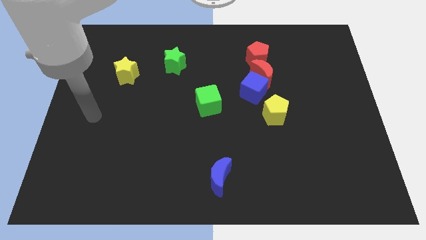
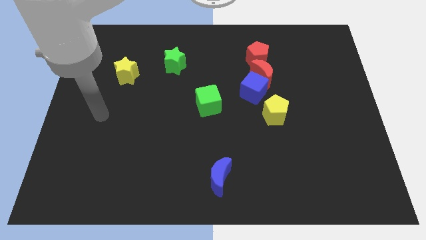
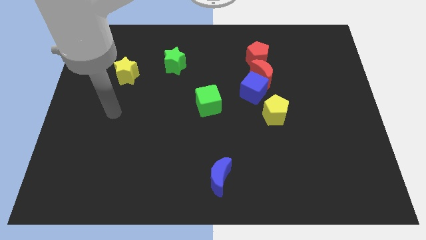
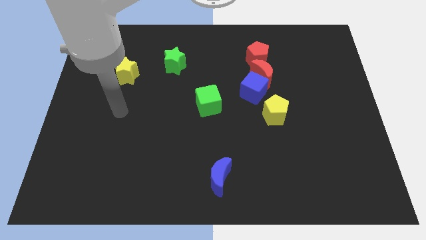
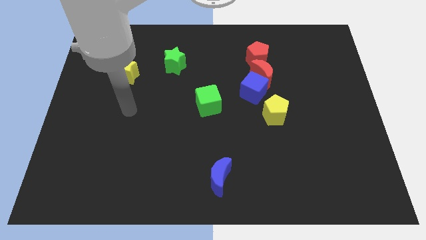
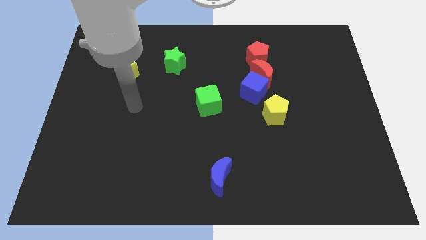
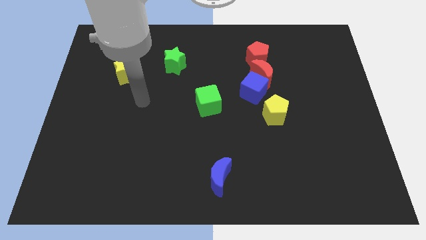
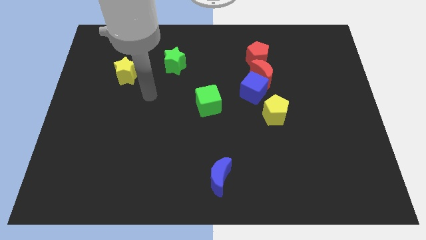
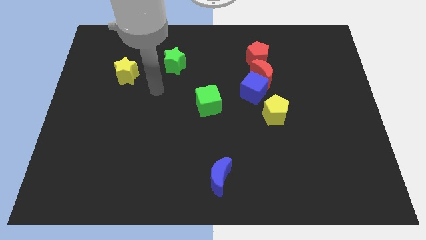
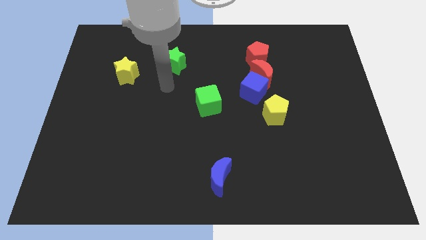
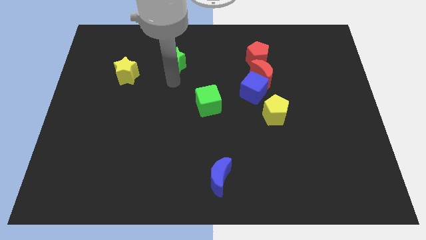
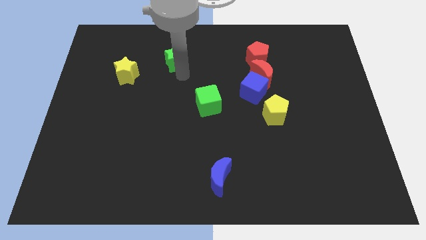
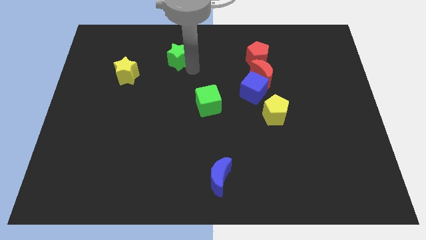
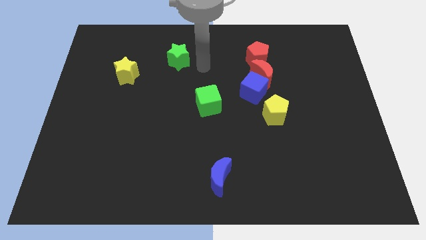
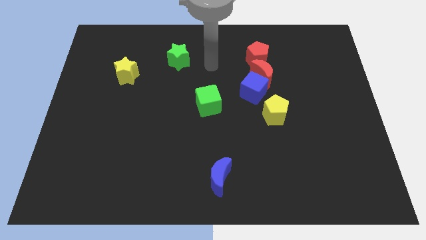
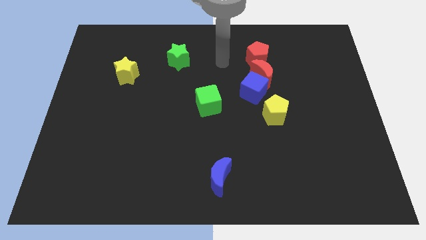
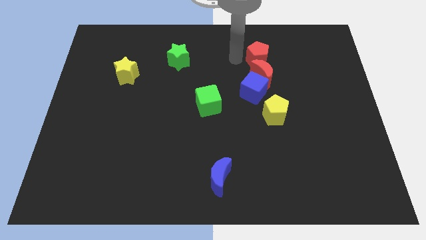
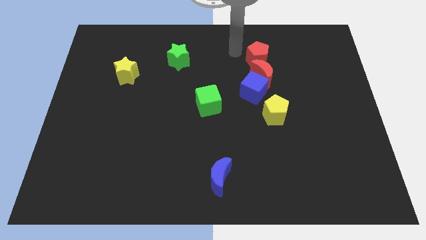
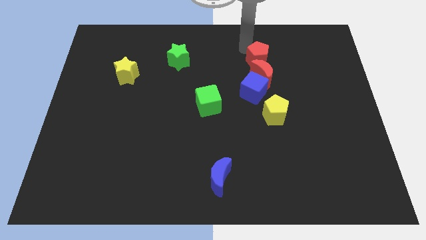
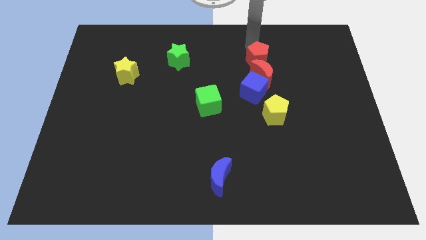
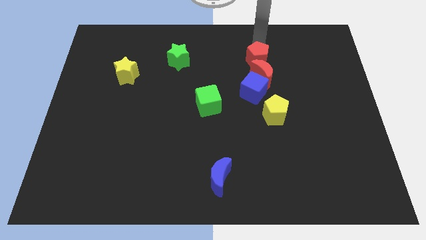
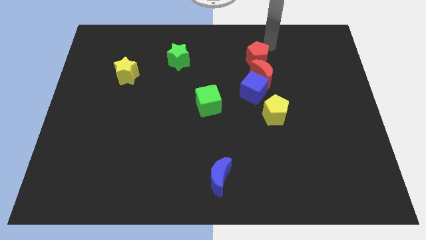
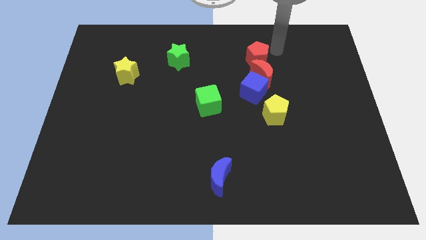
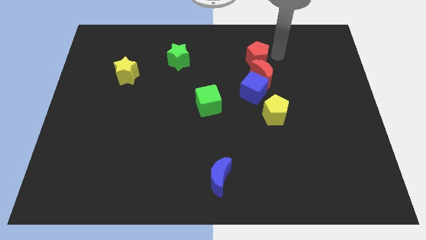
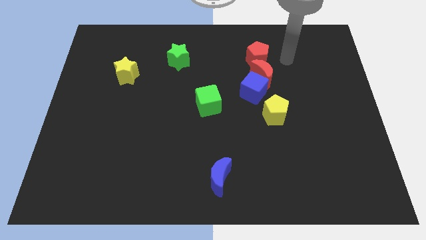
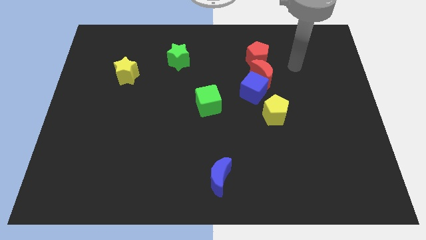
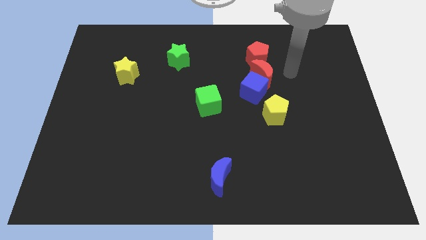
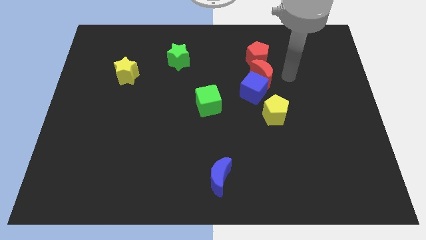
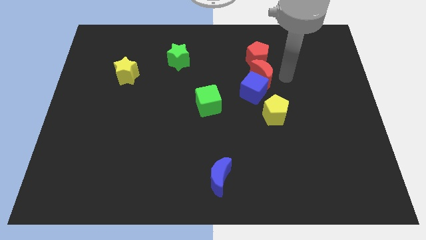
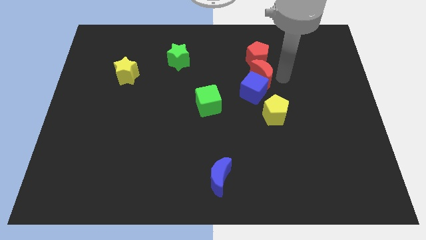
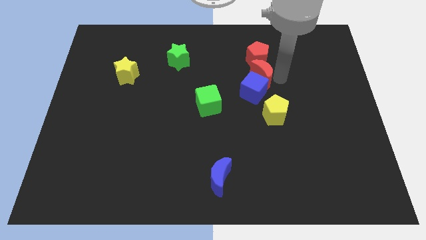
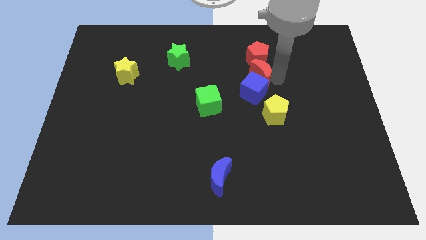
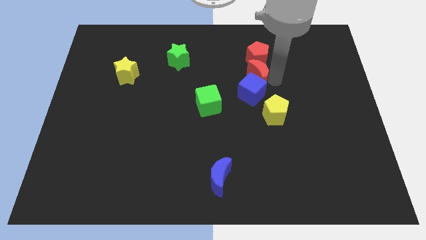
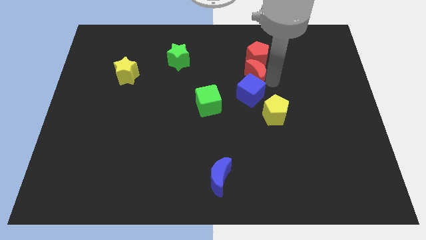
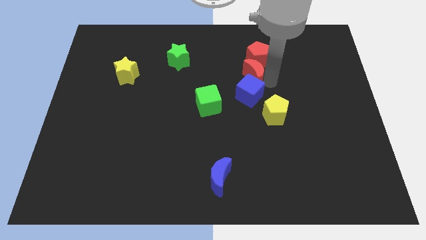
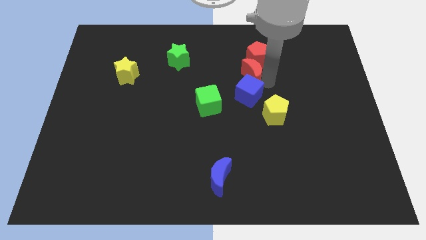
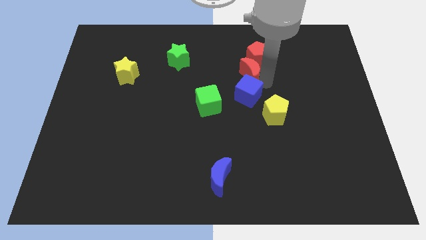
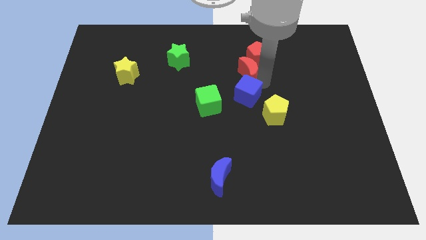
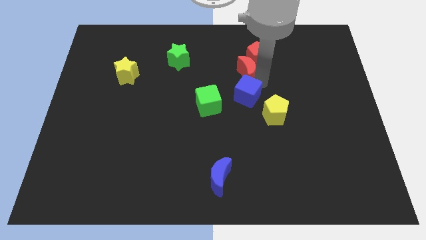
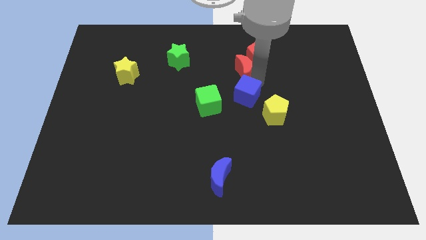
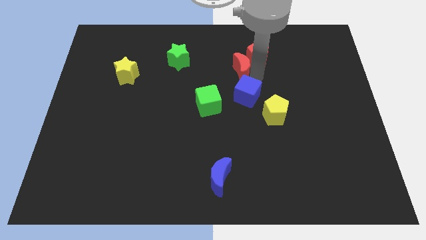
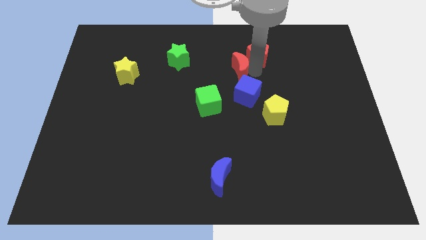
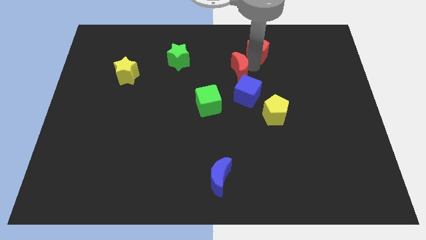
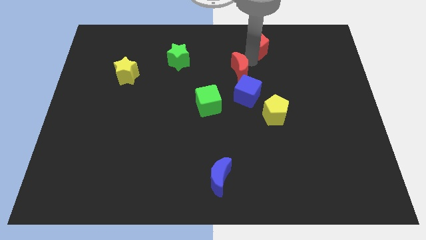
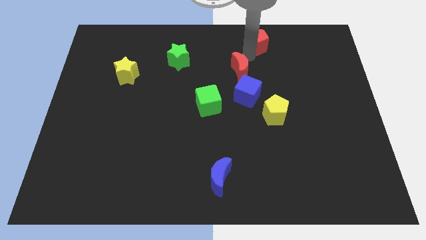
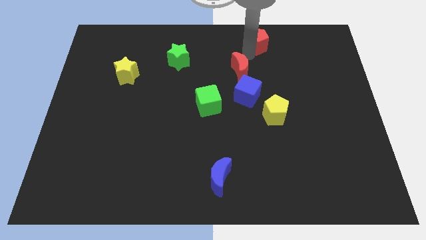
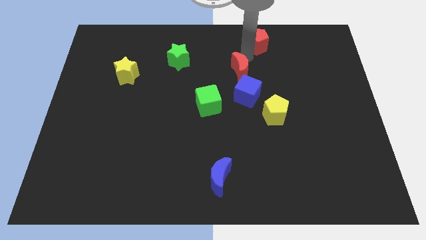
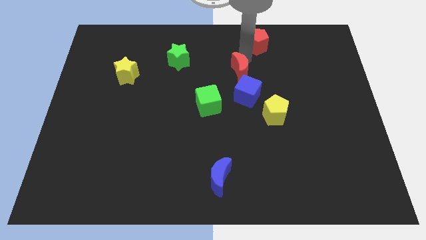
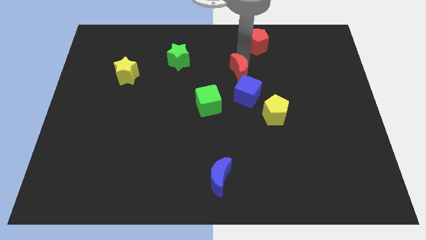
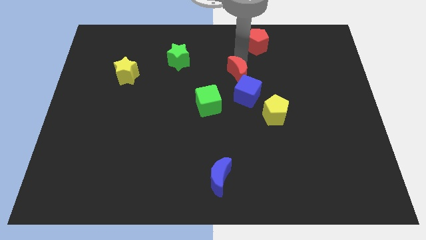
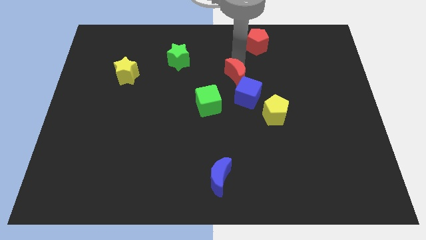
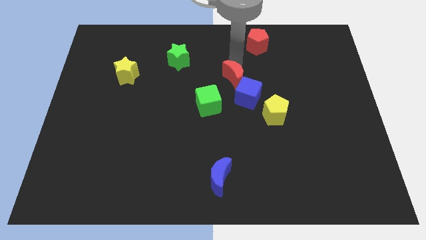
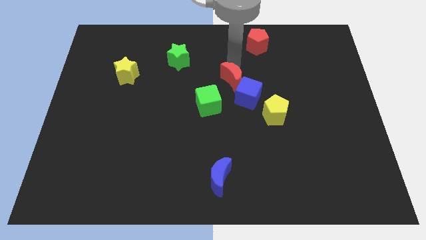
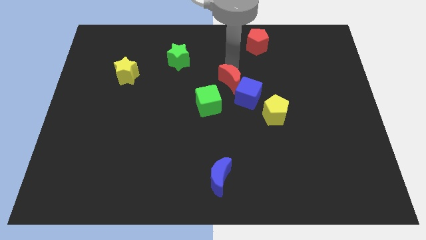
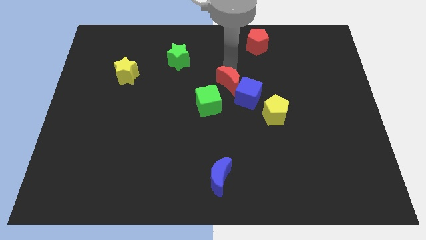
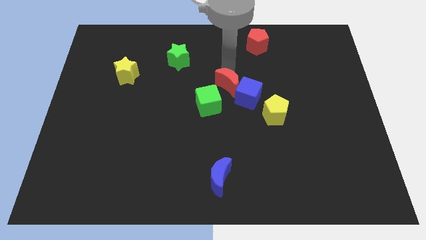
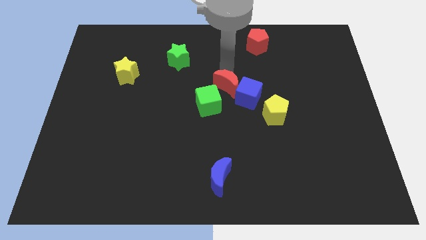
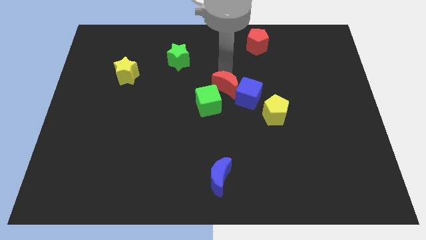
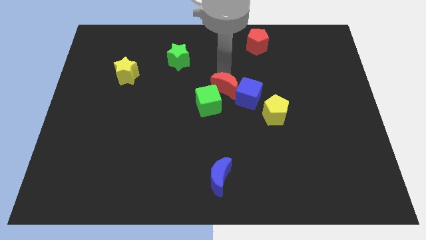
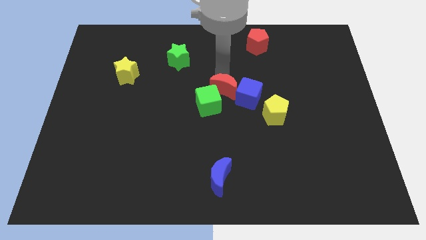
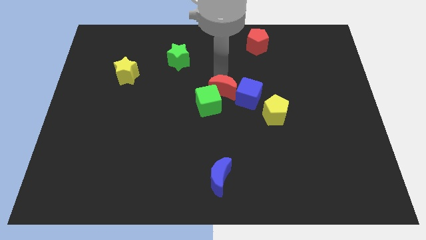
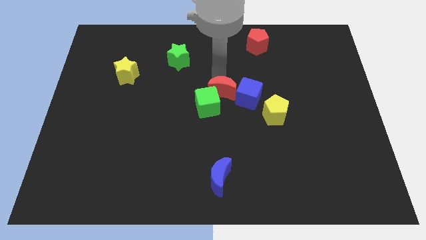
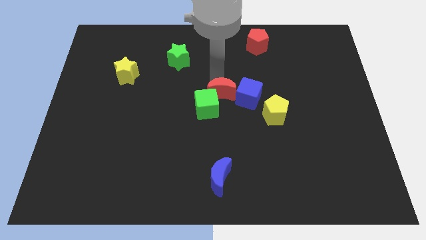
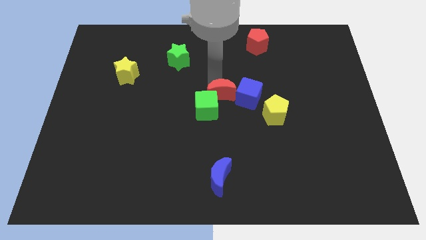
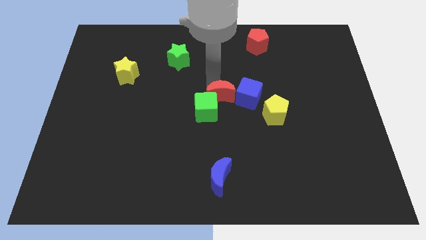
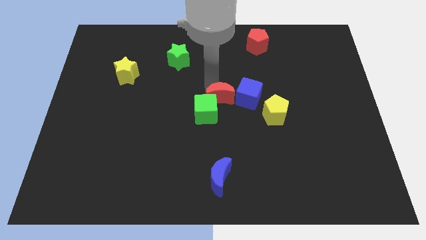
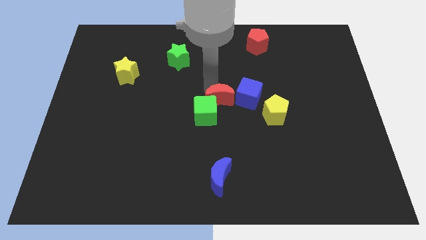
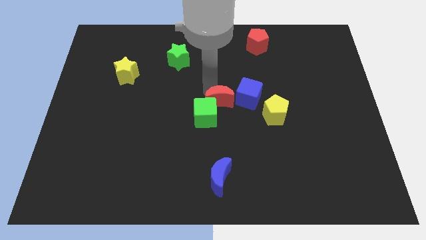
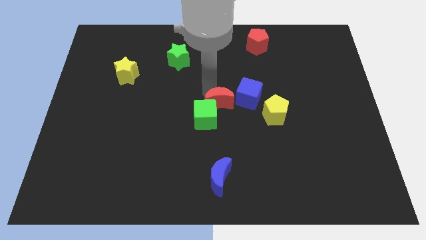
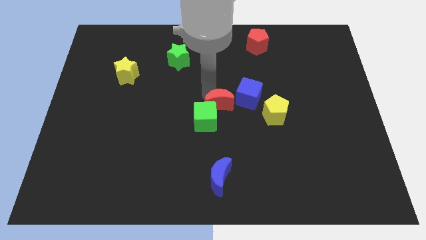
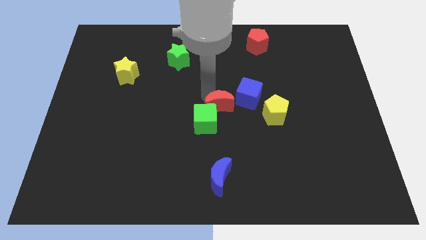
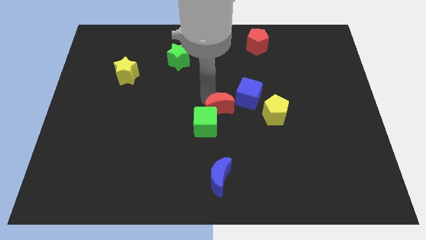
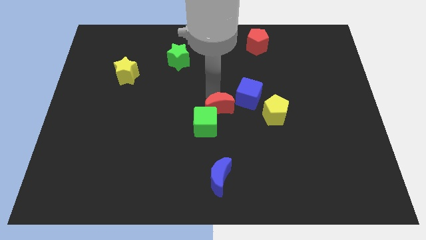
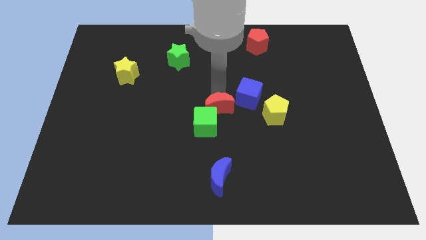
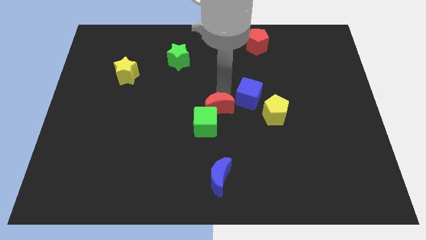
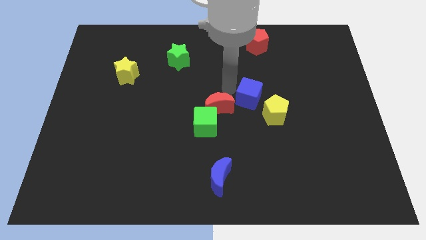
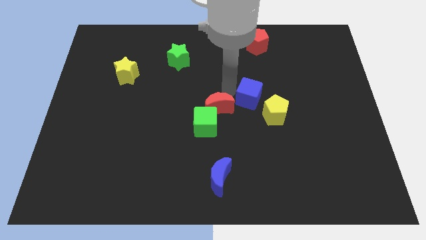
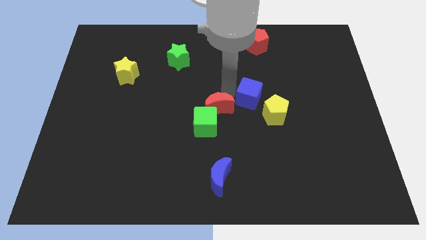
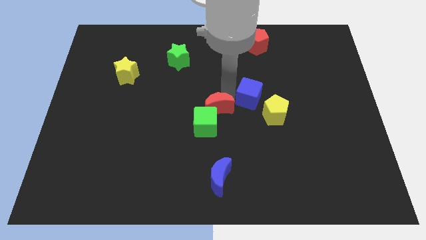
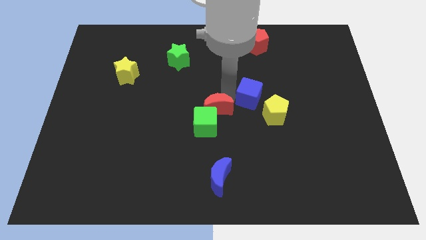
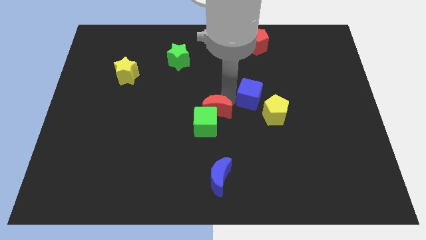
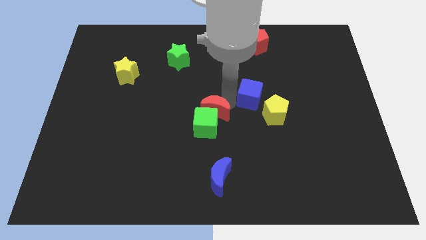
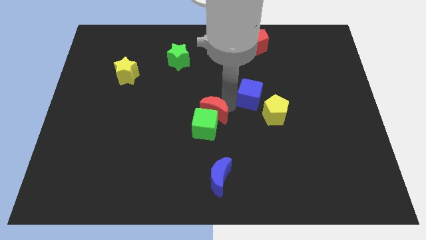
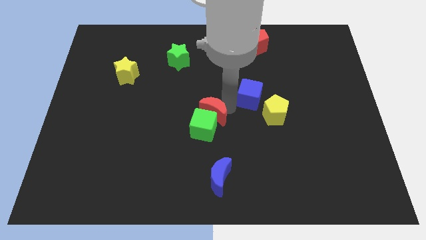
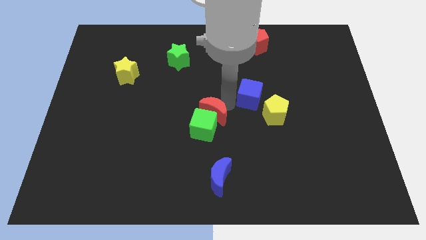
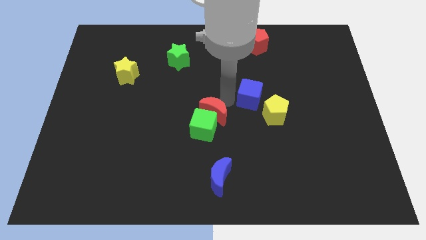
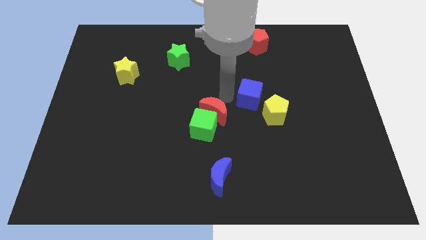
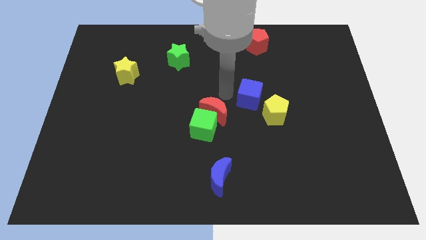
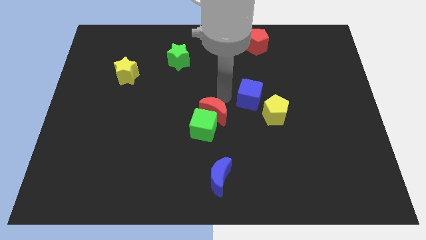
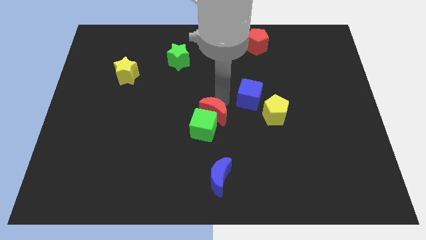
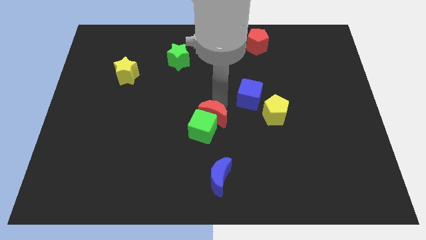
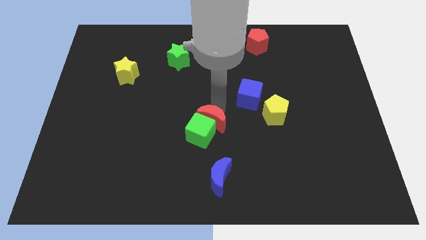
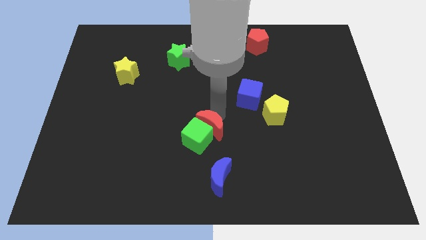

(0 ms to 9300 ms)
slide the red moon diagonally downwards and to the left
